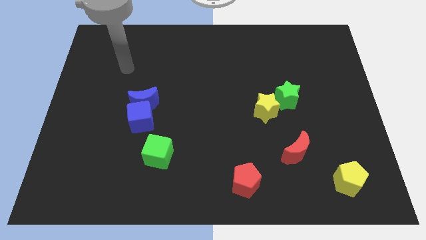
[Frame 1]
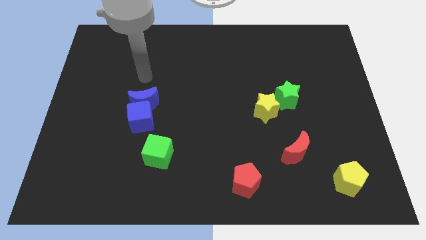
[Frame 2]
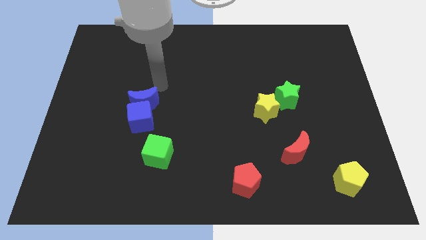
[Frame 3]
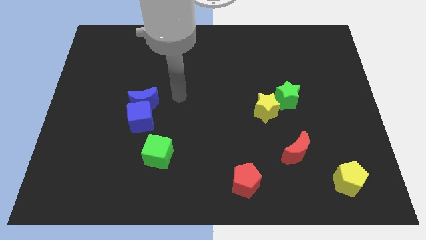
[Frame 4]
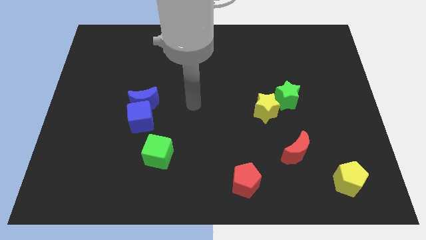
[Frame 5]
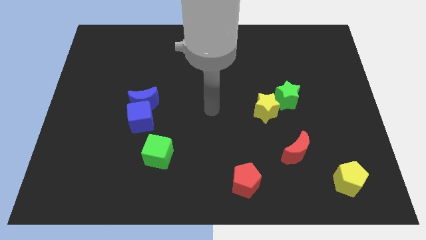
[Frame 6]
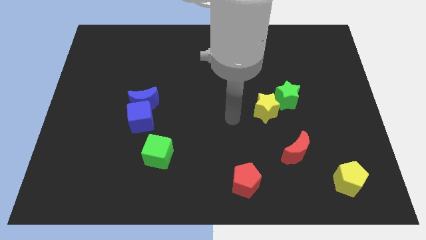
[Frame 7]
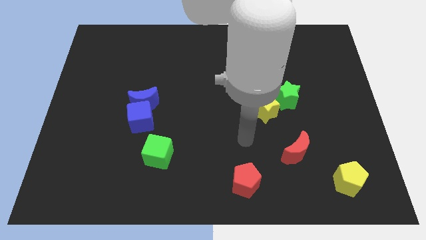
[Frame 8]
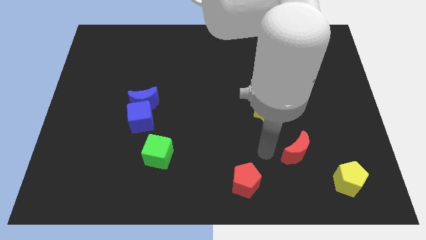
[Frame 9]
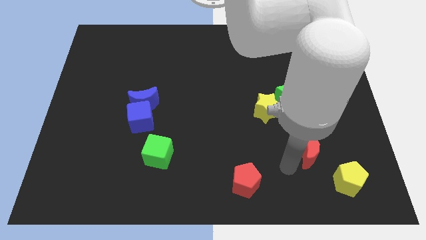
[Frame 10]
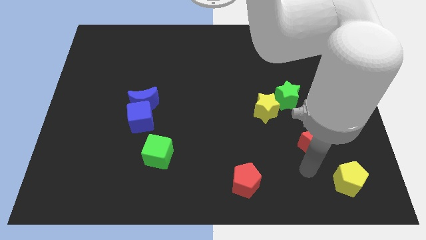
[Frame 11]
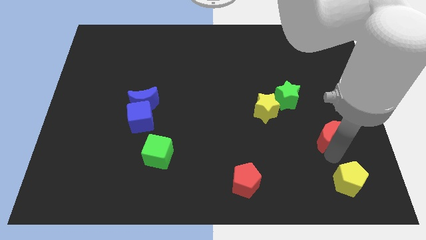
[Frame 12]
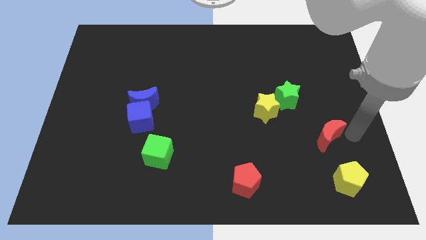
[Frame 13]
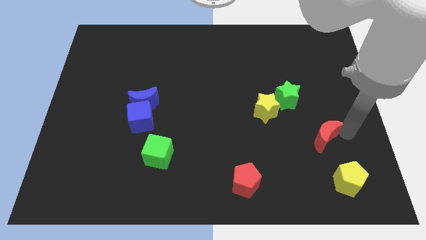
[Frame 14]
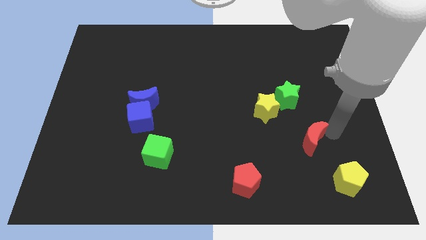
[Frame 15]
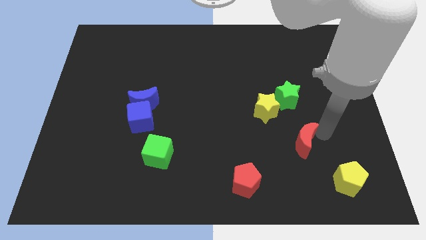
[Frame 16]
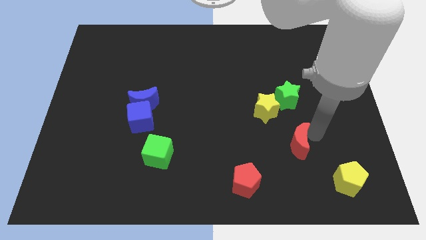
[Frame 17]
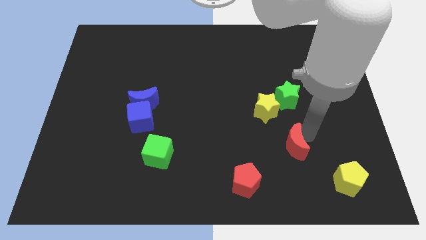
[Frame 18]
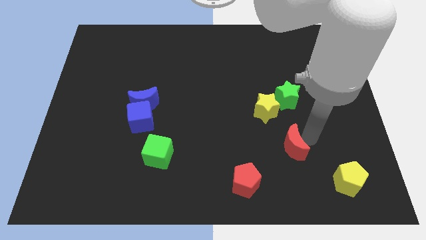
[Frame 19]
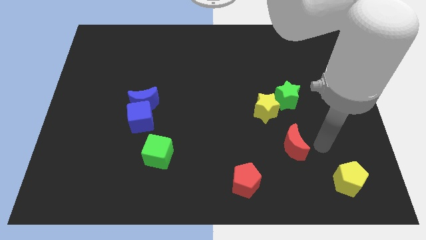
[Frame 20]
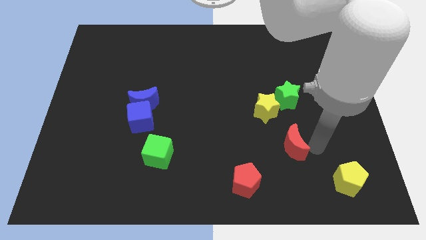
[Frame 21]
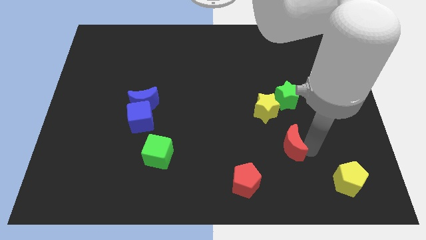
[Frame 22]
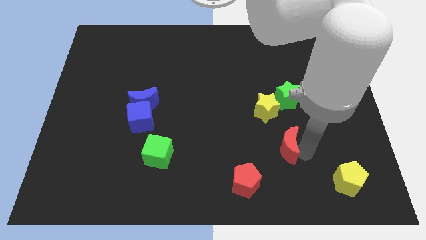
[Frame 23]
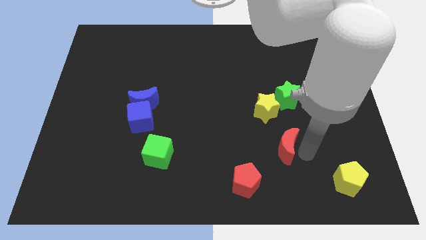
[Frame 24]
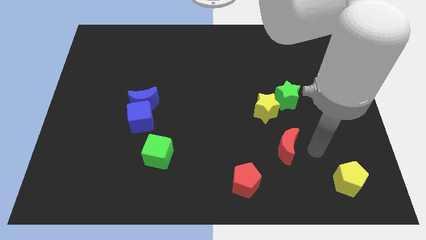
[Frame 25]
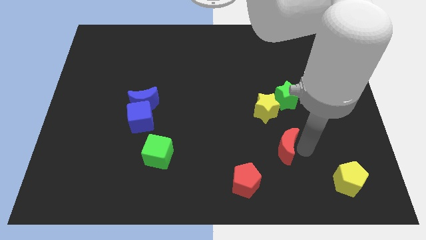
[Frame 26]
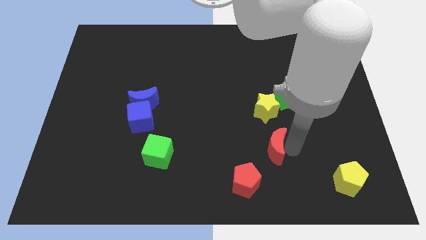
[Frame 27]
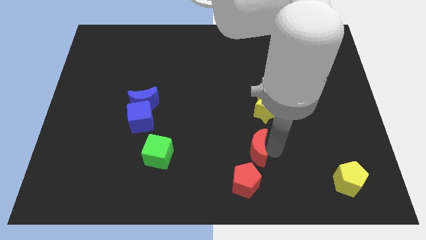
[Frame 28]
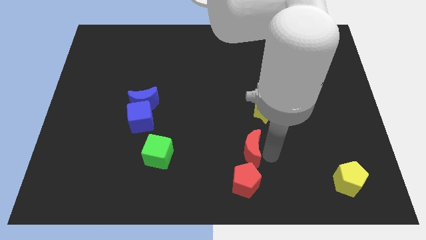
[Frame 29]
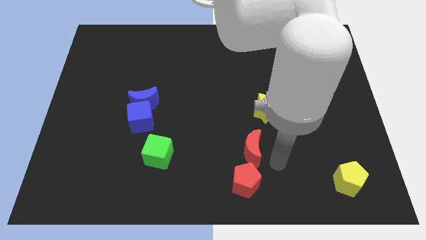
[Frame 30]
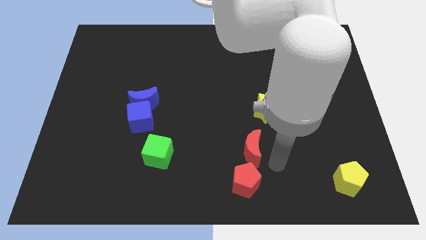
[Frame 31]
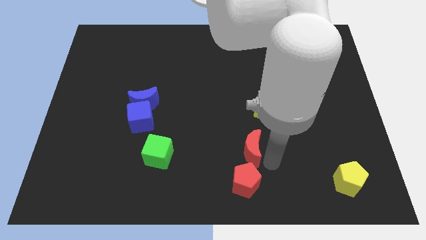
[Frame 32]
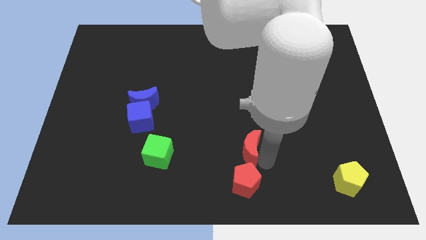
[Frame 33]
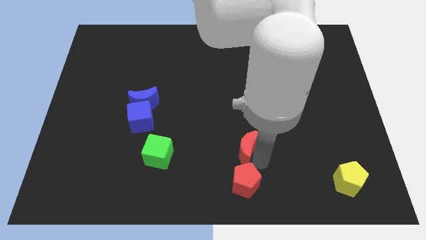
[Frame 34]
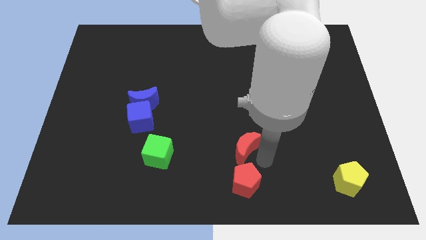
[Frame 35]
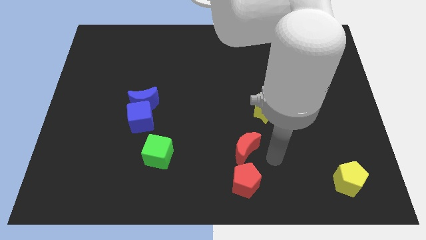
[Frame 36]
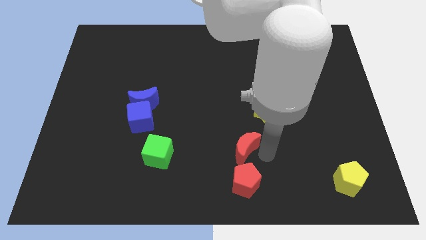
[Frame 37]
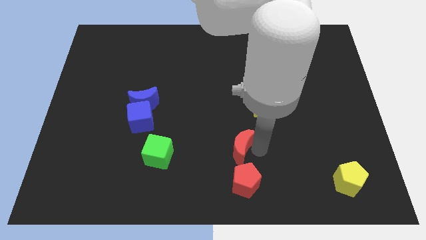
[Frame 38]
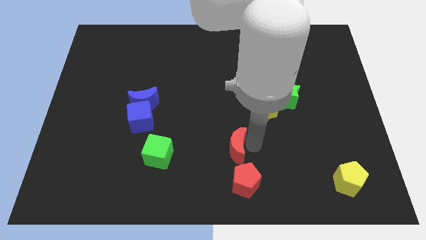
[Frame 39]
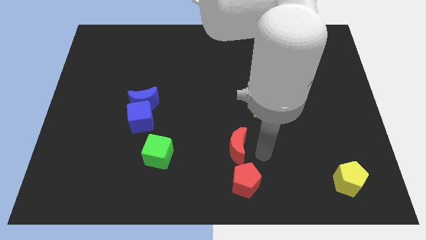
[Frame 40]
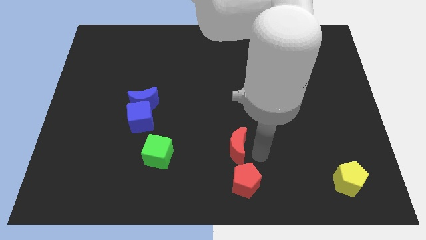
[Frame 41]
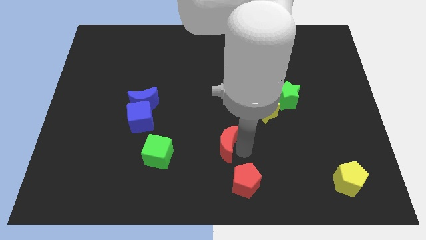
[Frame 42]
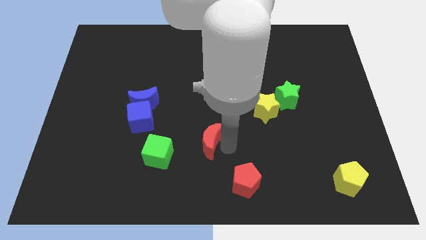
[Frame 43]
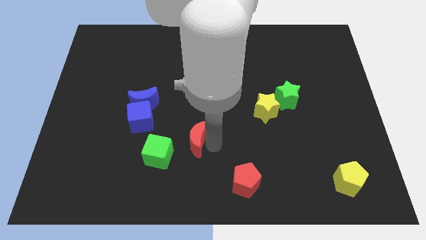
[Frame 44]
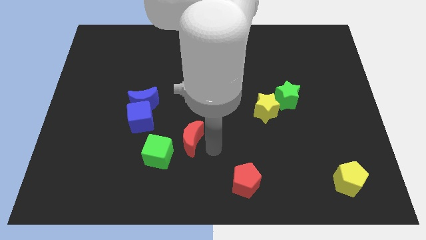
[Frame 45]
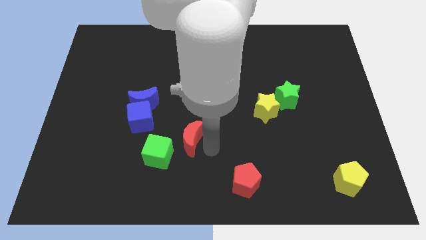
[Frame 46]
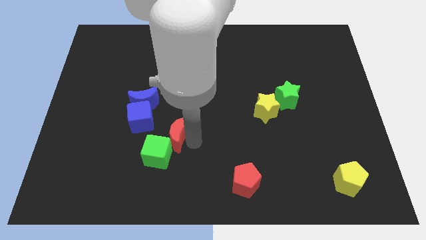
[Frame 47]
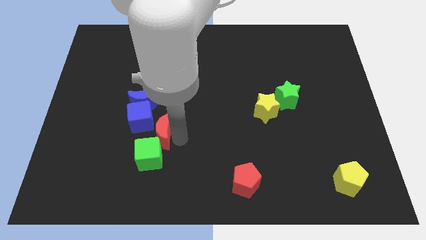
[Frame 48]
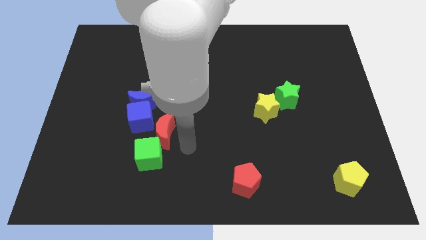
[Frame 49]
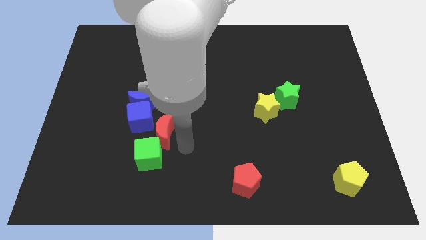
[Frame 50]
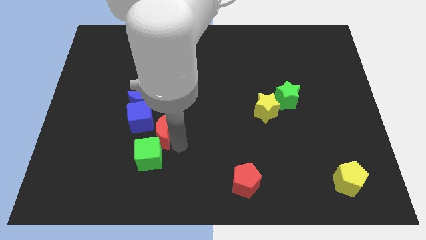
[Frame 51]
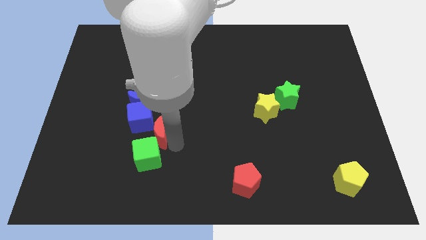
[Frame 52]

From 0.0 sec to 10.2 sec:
slide the red moon towards the blue cube

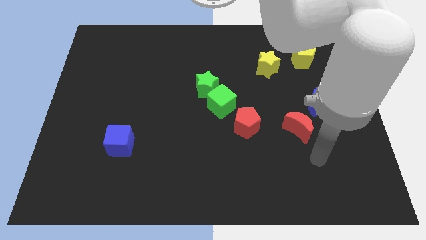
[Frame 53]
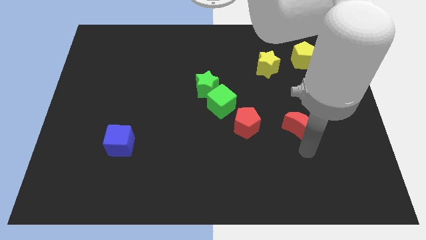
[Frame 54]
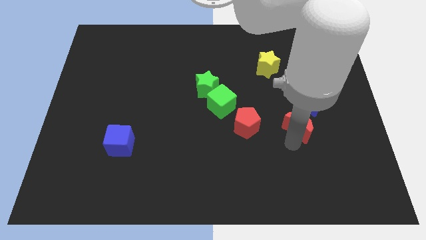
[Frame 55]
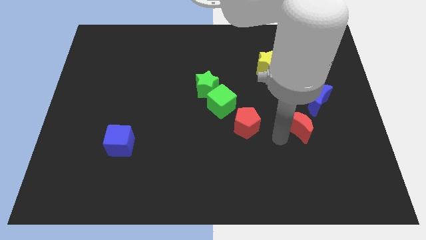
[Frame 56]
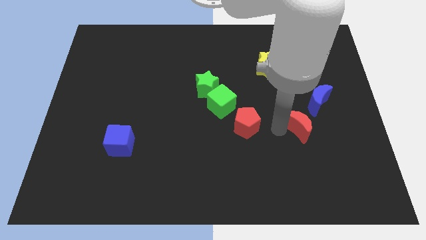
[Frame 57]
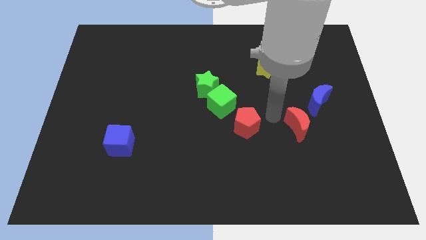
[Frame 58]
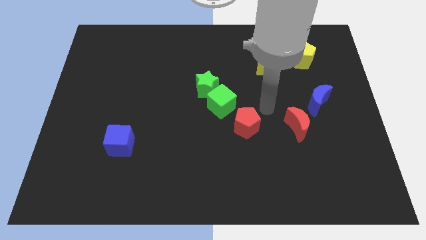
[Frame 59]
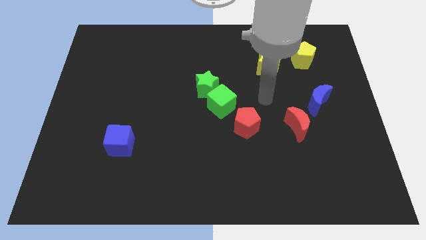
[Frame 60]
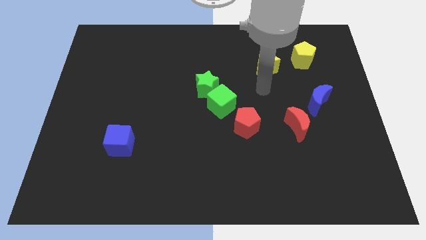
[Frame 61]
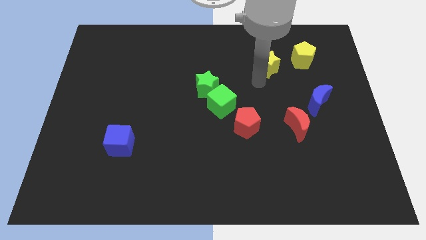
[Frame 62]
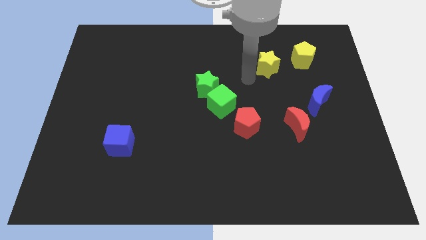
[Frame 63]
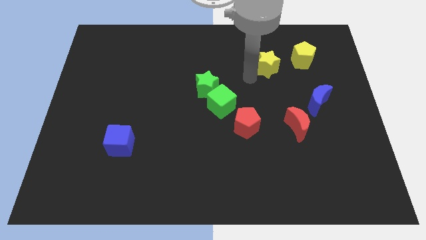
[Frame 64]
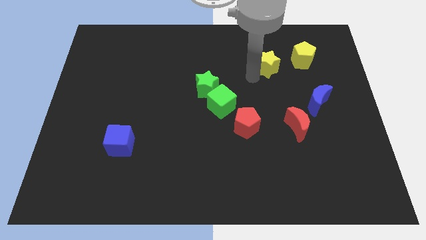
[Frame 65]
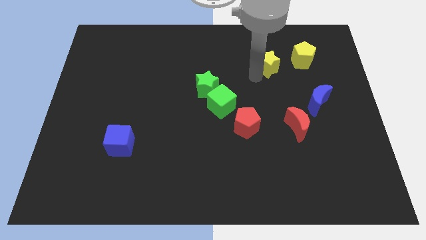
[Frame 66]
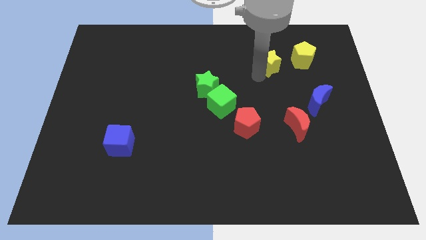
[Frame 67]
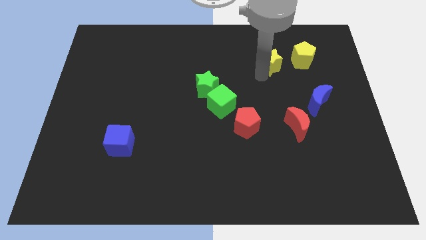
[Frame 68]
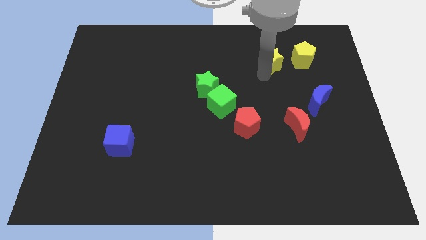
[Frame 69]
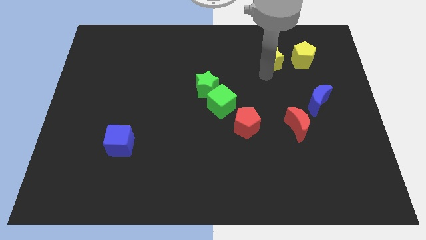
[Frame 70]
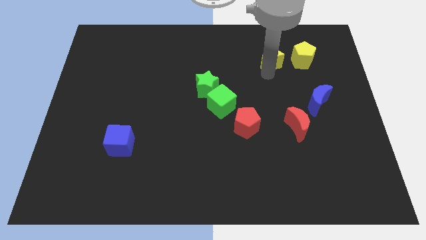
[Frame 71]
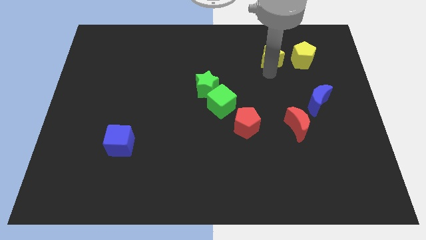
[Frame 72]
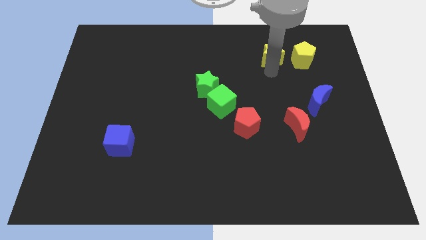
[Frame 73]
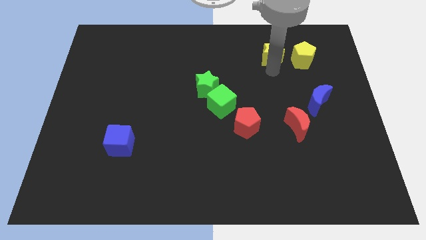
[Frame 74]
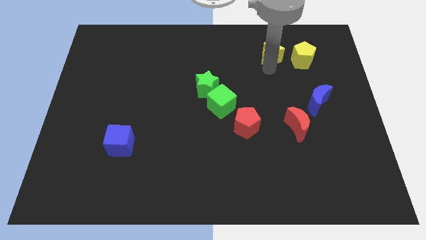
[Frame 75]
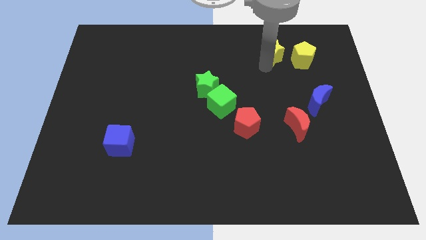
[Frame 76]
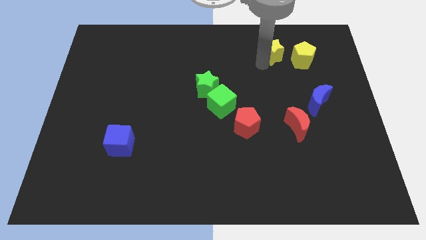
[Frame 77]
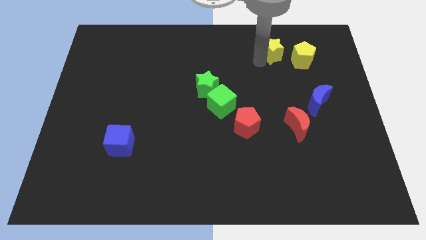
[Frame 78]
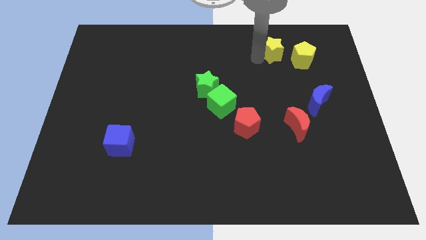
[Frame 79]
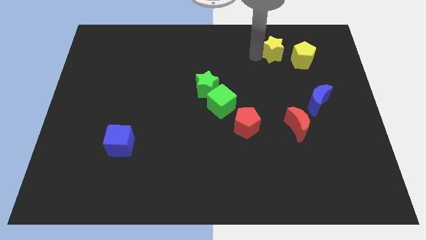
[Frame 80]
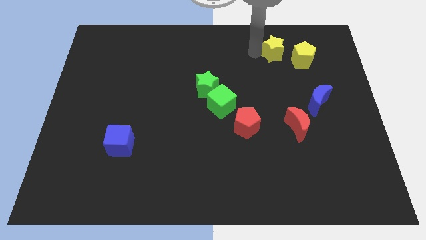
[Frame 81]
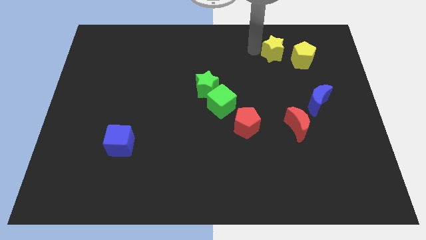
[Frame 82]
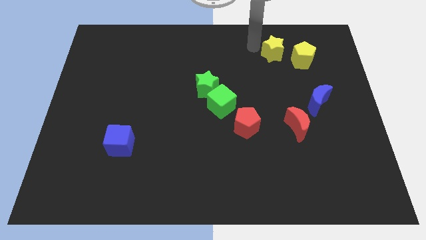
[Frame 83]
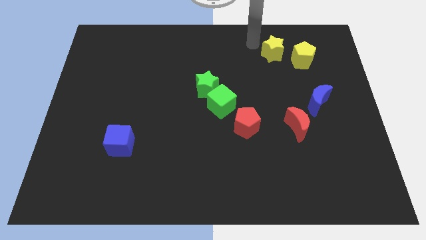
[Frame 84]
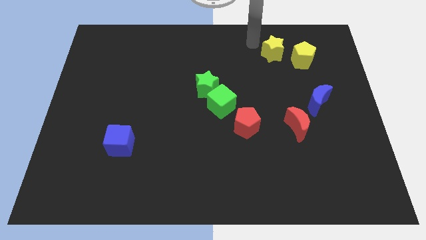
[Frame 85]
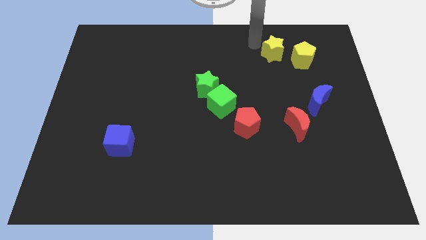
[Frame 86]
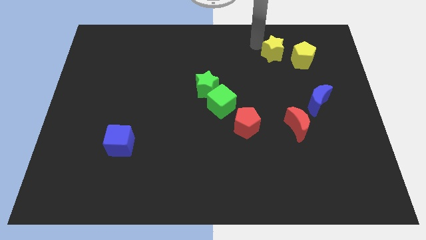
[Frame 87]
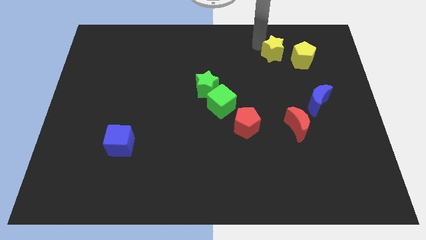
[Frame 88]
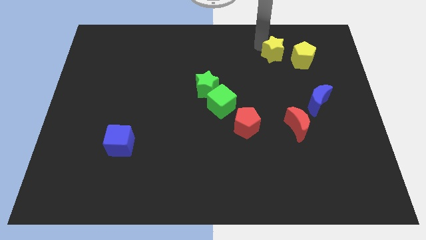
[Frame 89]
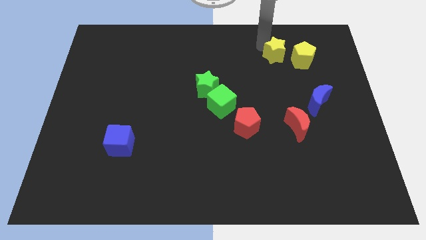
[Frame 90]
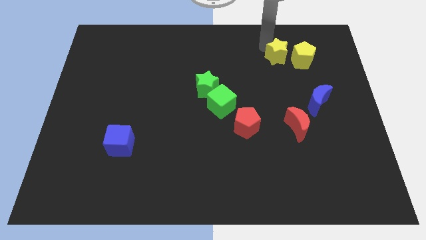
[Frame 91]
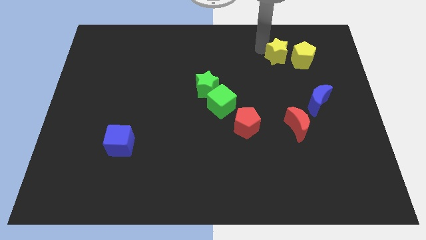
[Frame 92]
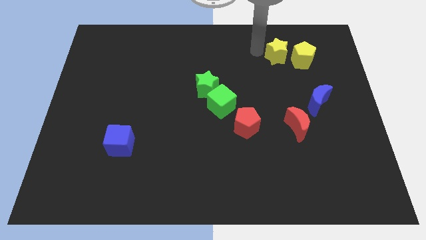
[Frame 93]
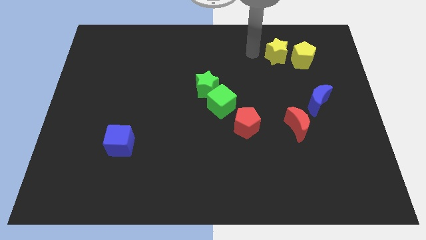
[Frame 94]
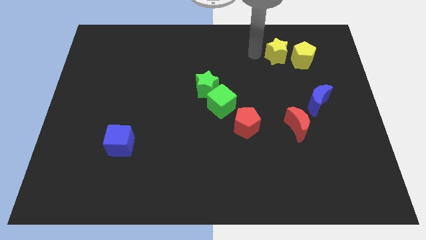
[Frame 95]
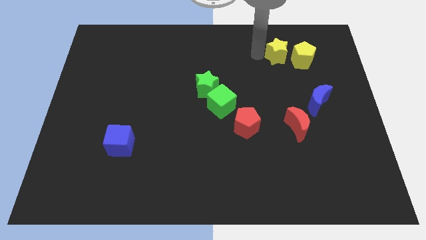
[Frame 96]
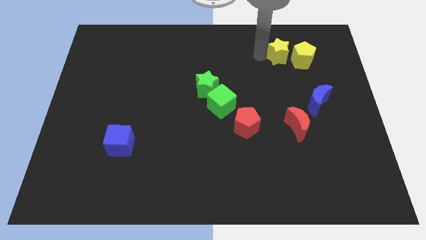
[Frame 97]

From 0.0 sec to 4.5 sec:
slide the yellow star next to the yellow pentagon
